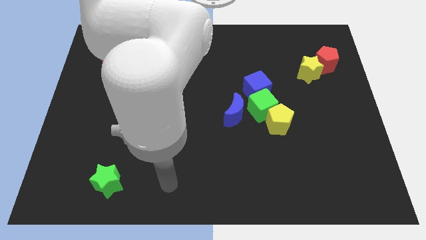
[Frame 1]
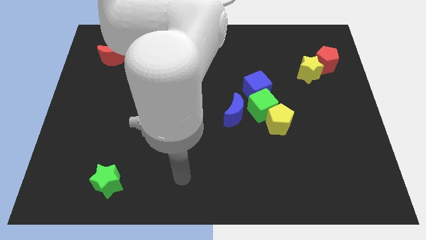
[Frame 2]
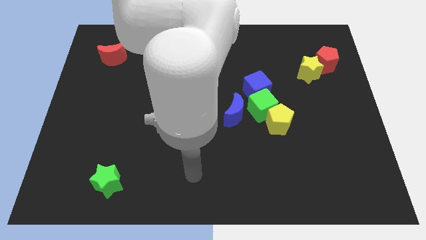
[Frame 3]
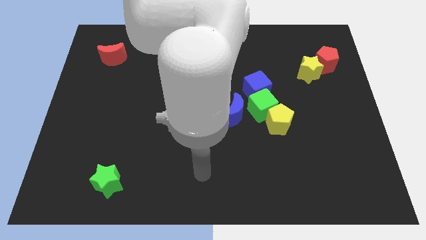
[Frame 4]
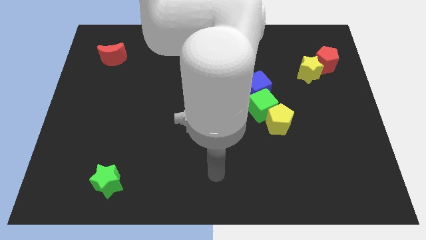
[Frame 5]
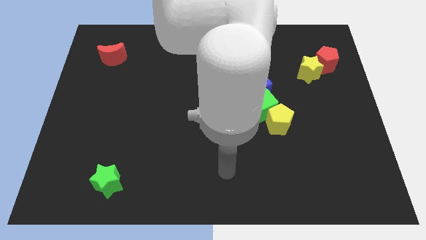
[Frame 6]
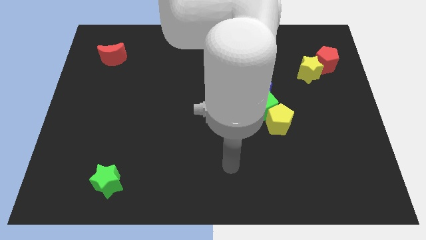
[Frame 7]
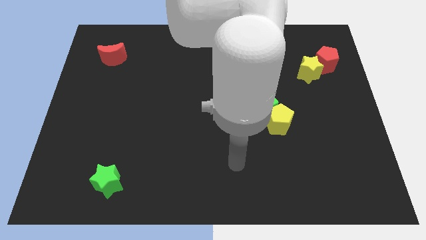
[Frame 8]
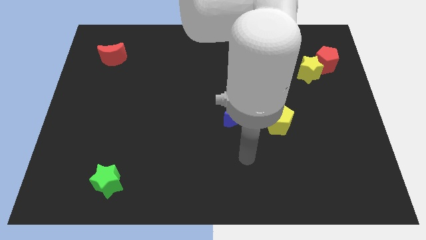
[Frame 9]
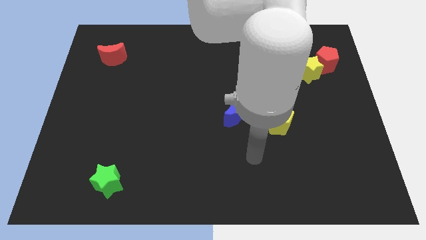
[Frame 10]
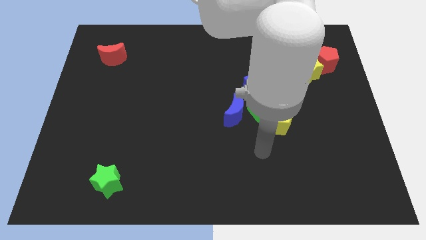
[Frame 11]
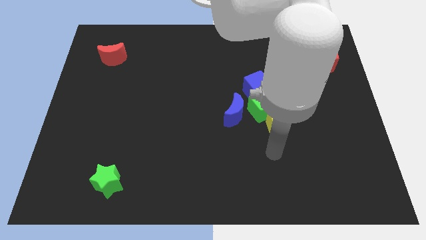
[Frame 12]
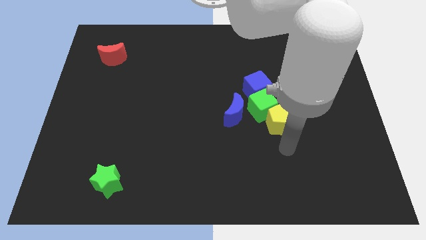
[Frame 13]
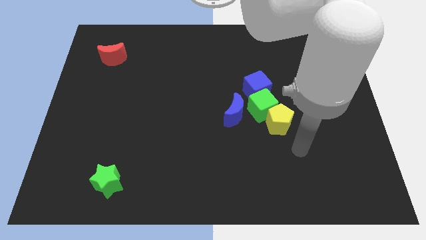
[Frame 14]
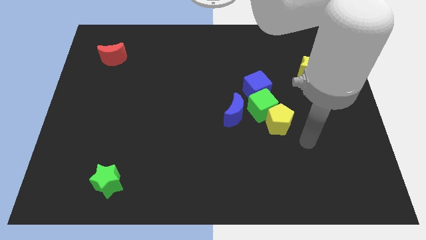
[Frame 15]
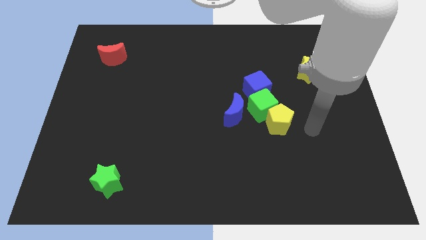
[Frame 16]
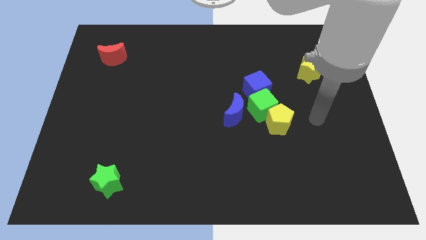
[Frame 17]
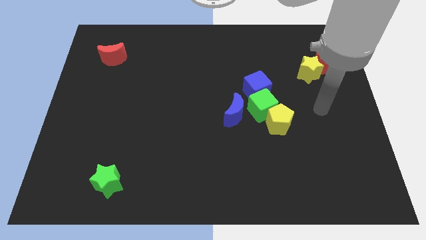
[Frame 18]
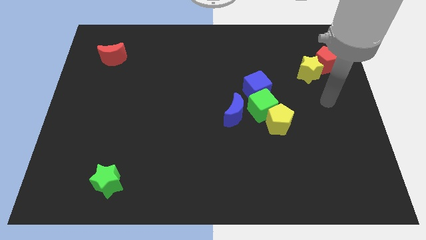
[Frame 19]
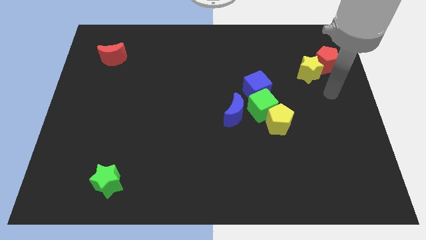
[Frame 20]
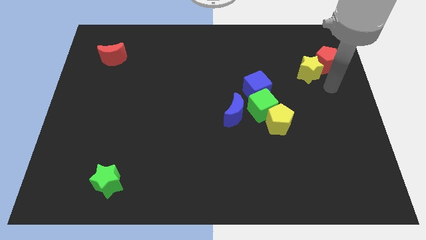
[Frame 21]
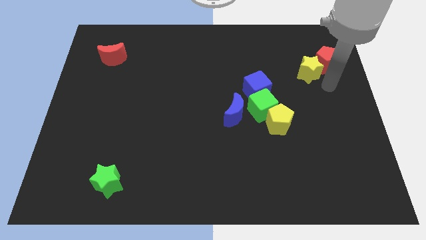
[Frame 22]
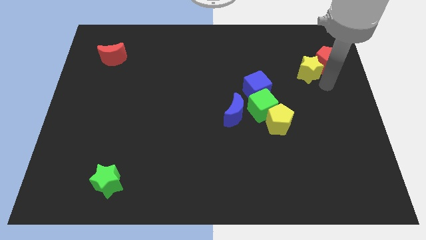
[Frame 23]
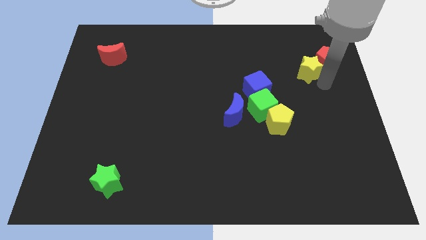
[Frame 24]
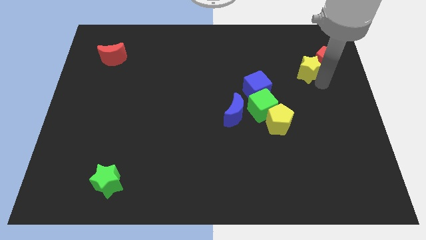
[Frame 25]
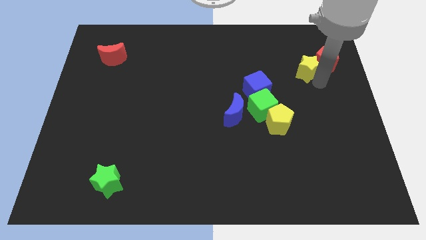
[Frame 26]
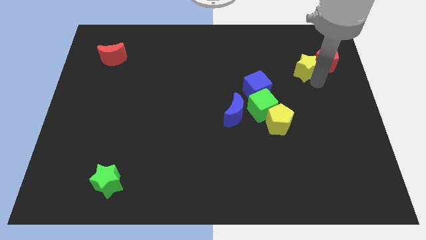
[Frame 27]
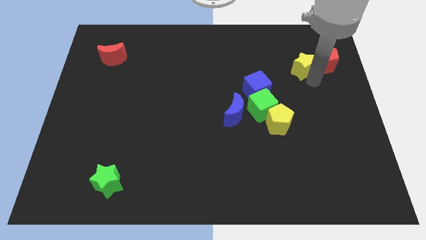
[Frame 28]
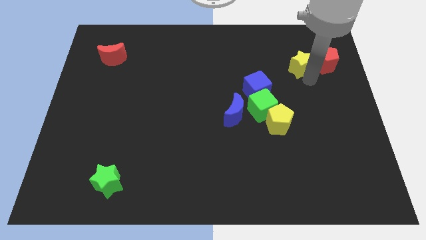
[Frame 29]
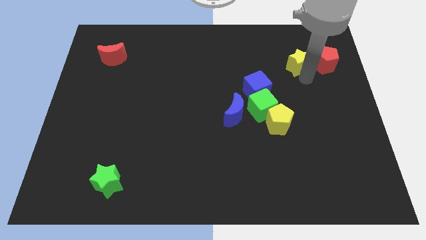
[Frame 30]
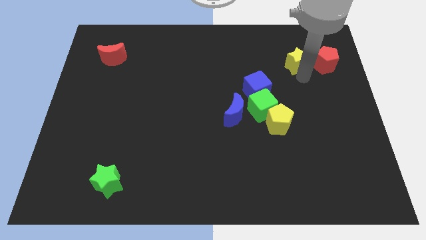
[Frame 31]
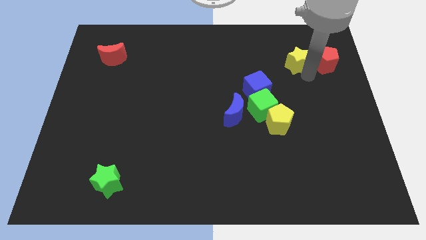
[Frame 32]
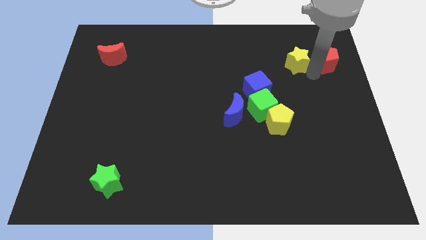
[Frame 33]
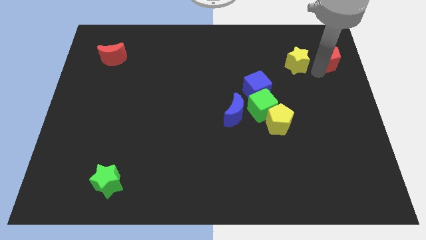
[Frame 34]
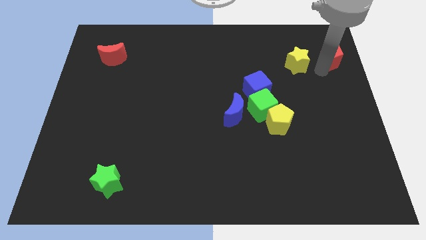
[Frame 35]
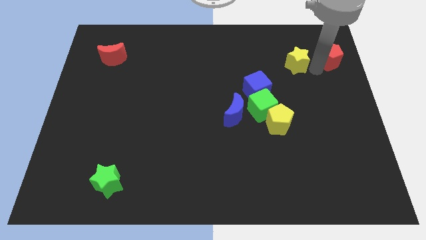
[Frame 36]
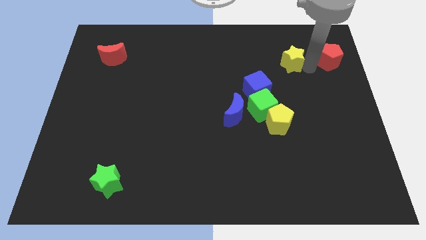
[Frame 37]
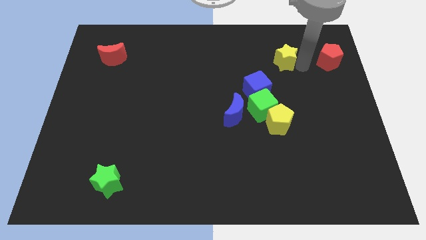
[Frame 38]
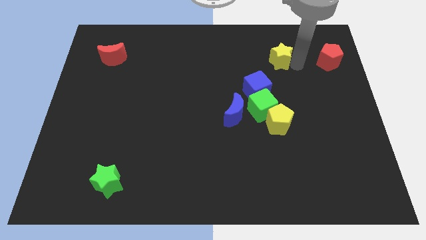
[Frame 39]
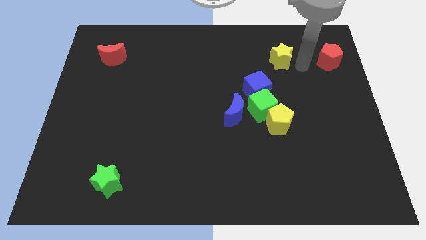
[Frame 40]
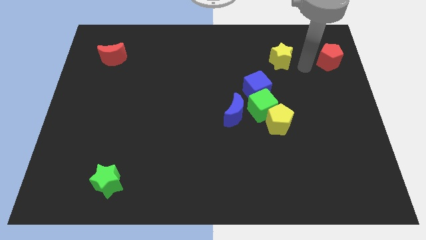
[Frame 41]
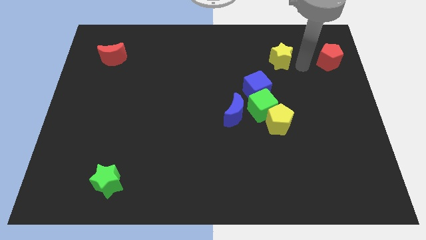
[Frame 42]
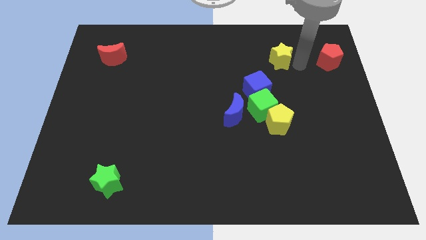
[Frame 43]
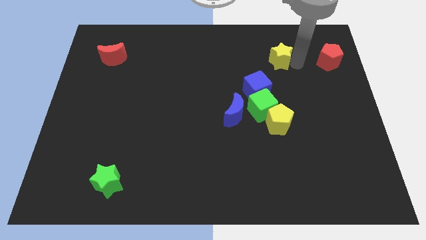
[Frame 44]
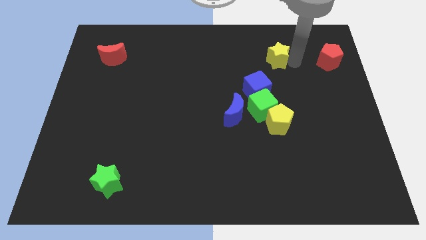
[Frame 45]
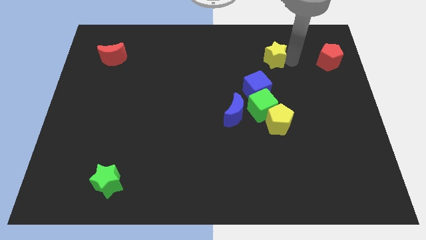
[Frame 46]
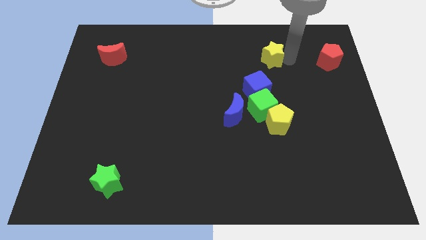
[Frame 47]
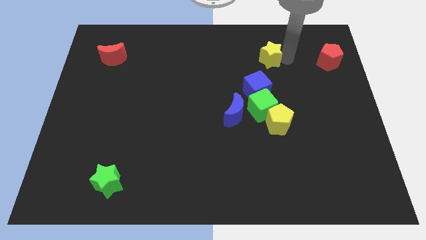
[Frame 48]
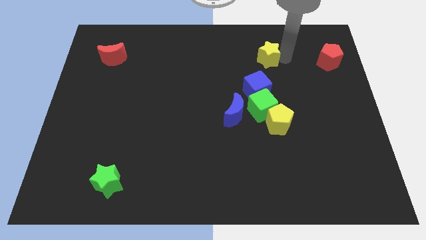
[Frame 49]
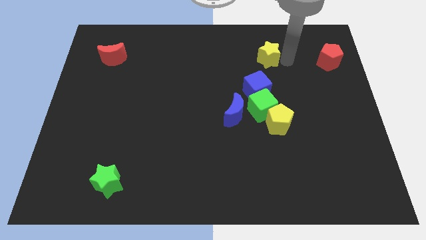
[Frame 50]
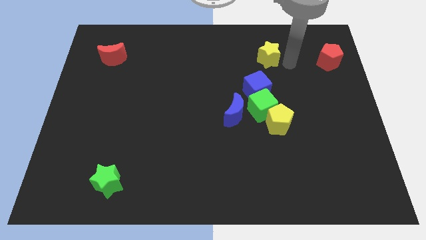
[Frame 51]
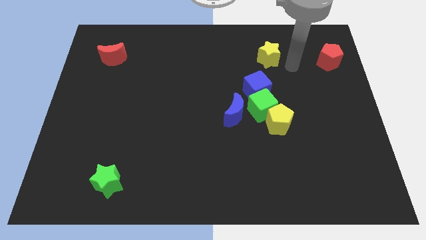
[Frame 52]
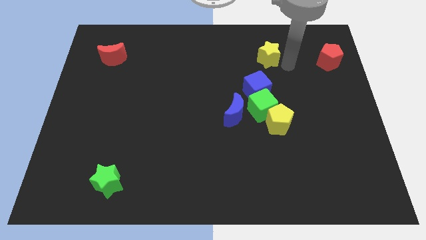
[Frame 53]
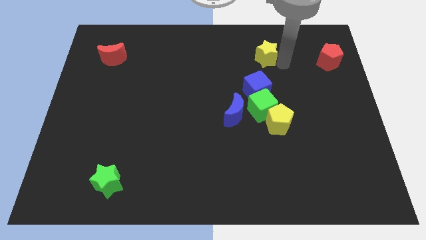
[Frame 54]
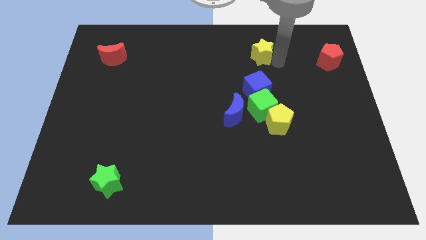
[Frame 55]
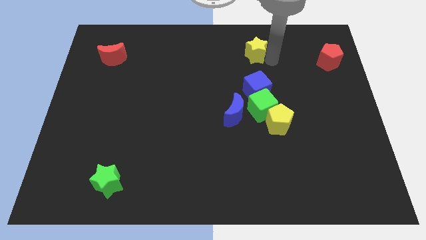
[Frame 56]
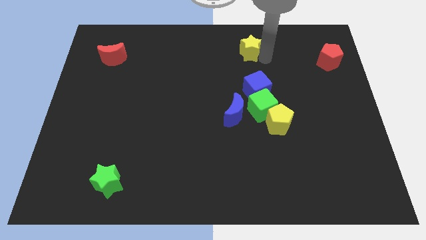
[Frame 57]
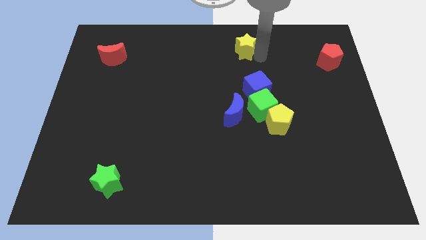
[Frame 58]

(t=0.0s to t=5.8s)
push the yellow star to the top side
